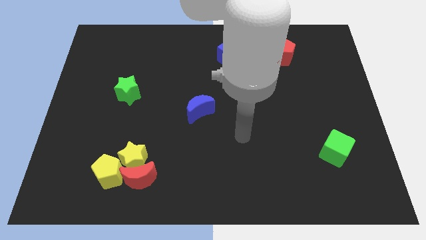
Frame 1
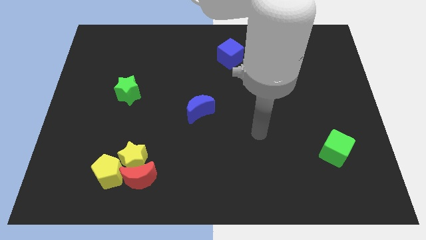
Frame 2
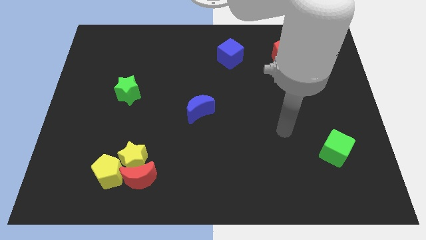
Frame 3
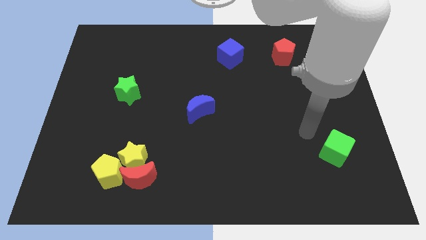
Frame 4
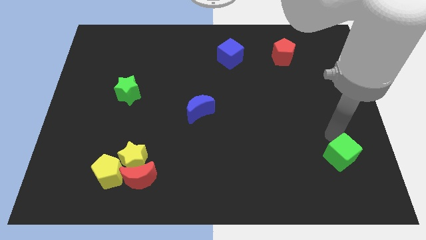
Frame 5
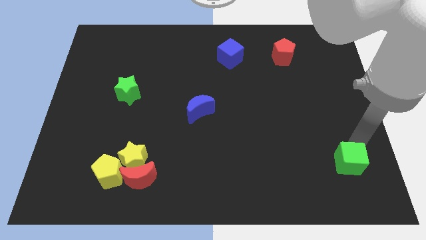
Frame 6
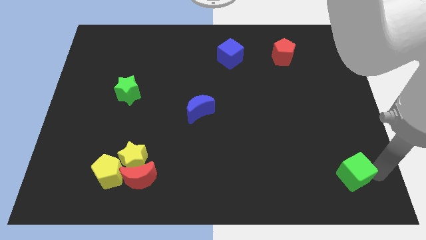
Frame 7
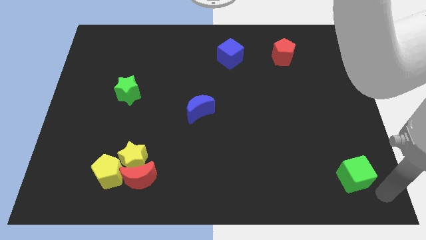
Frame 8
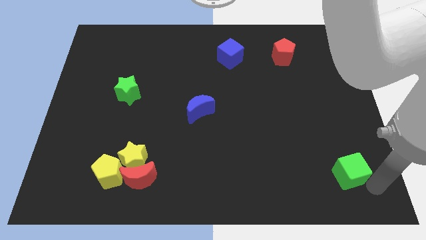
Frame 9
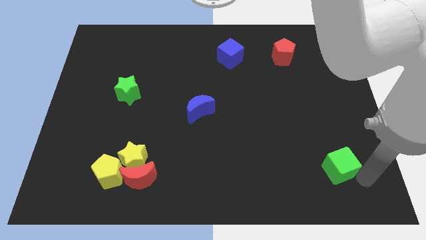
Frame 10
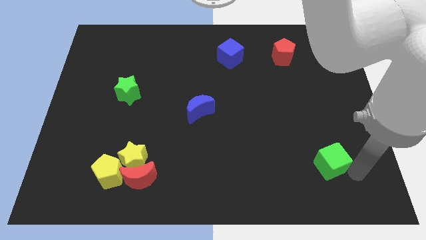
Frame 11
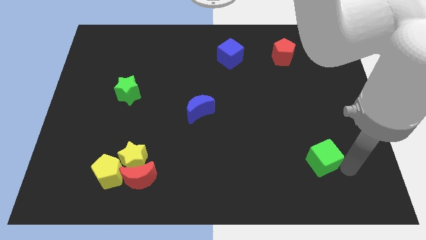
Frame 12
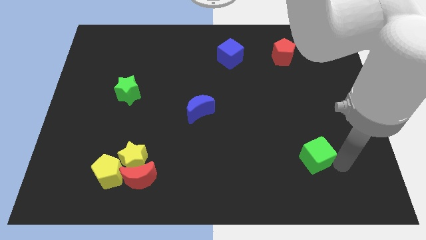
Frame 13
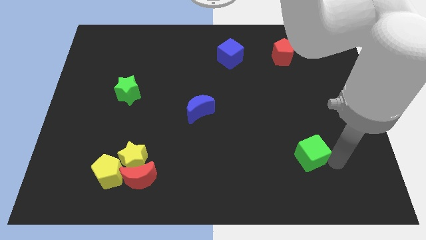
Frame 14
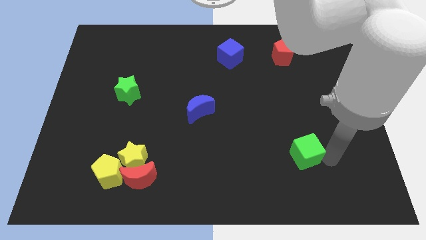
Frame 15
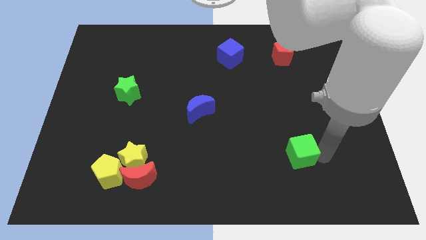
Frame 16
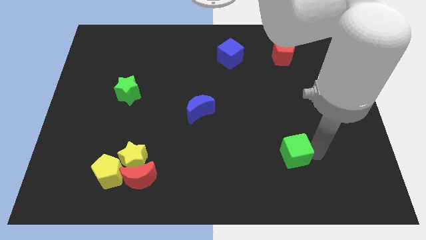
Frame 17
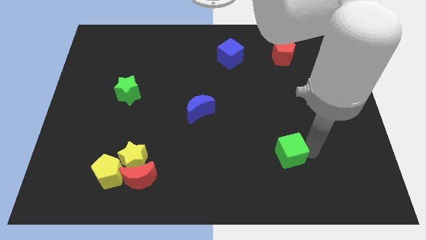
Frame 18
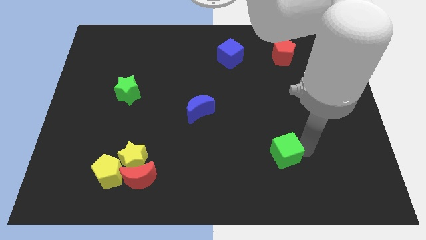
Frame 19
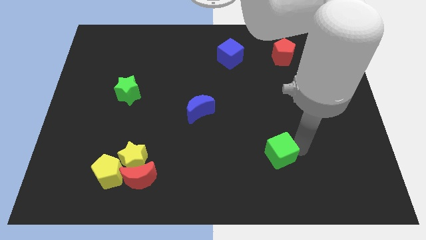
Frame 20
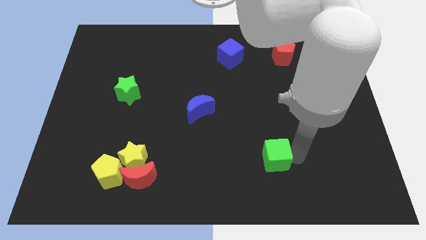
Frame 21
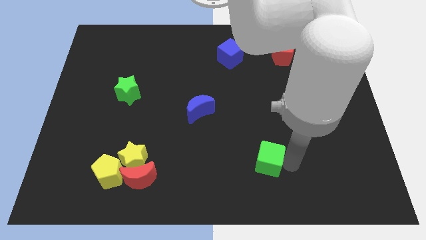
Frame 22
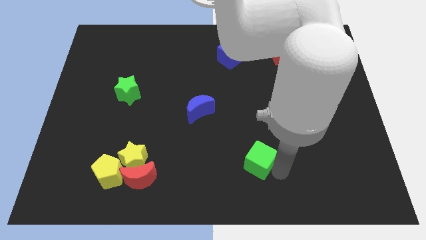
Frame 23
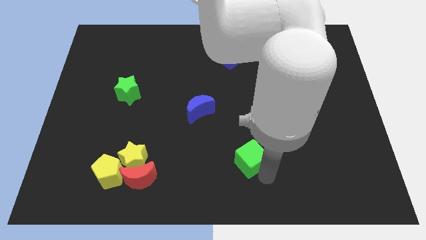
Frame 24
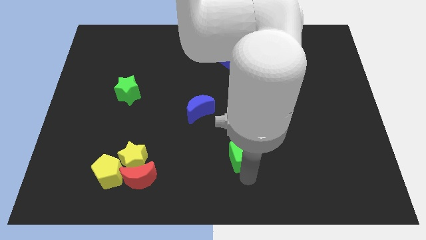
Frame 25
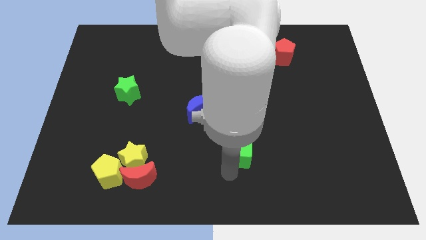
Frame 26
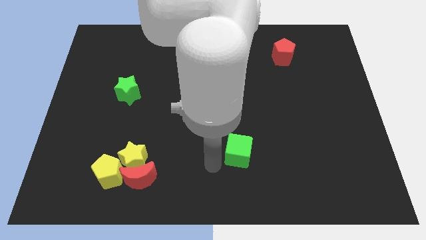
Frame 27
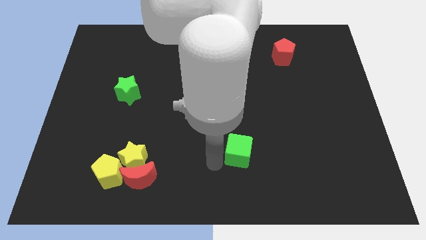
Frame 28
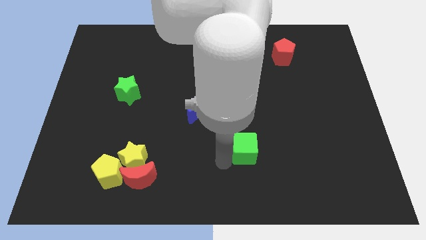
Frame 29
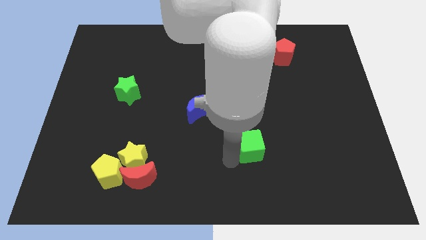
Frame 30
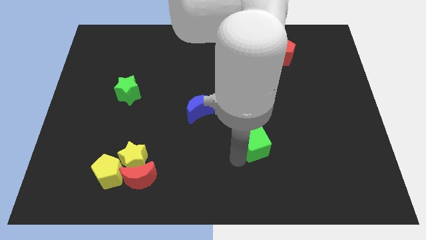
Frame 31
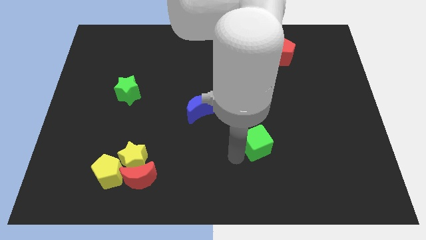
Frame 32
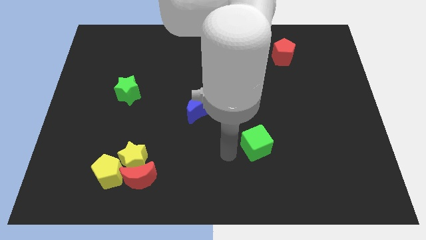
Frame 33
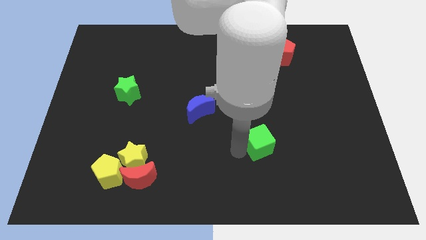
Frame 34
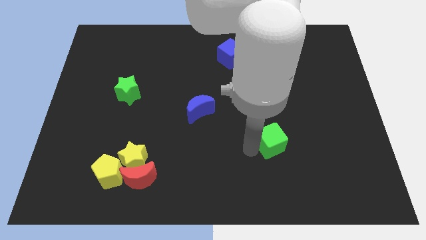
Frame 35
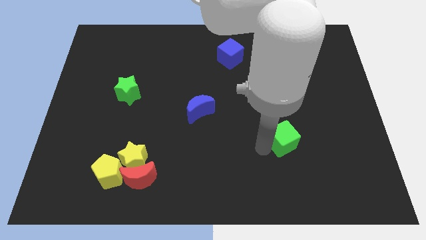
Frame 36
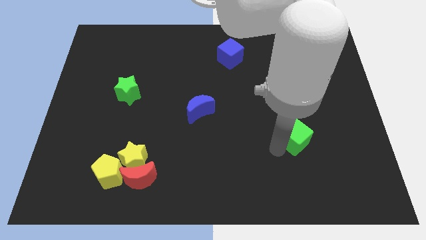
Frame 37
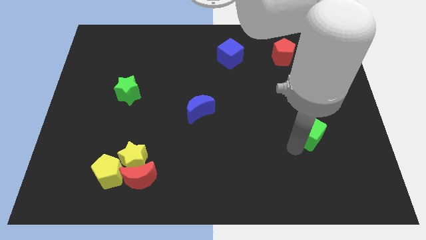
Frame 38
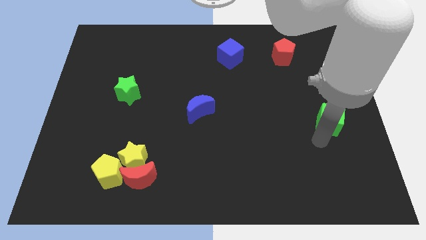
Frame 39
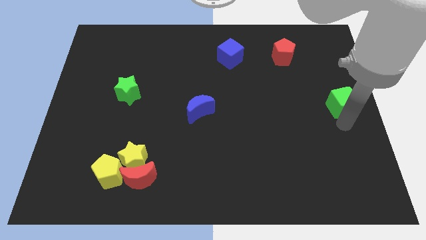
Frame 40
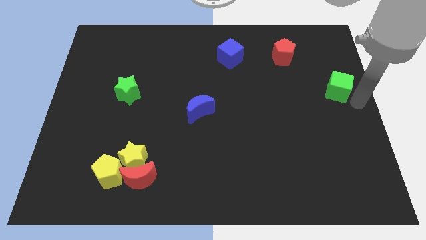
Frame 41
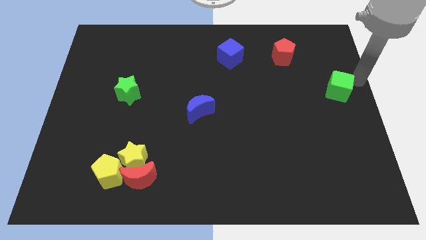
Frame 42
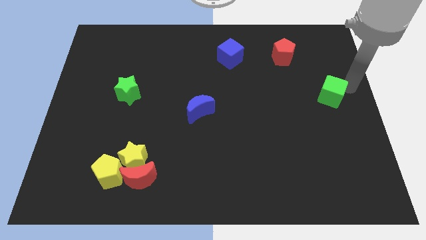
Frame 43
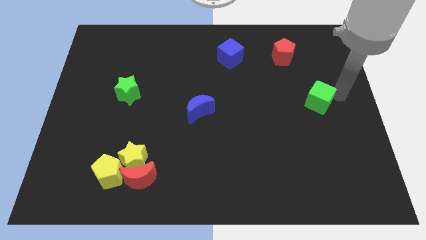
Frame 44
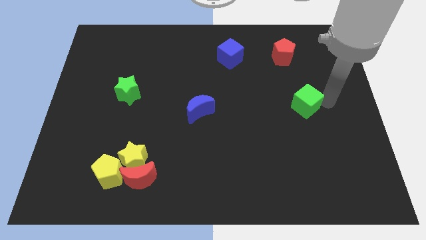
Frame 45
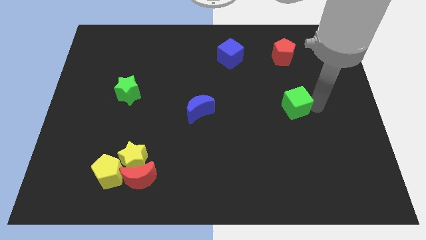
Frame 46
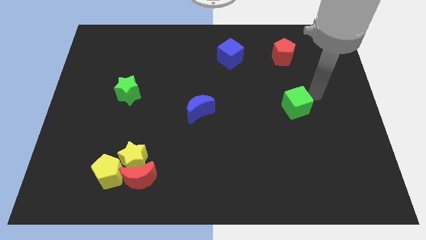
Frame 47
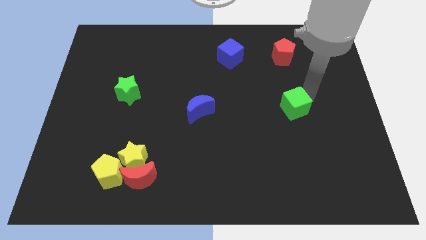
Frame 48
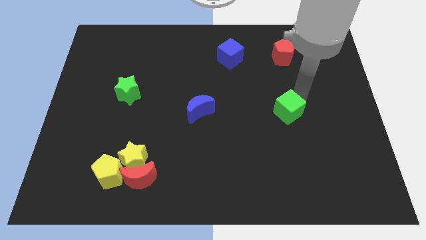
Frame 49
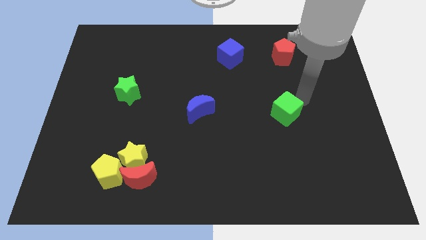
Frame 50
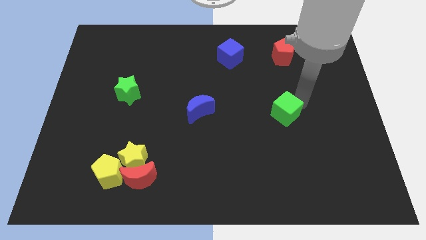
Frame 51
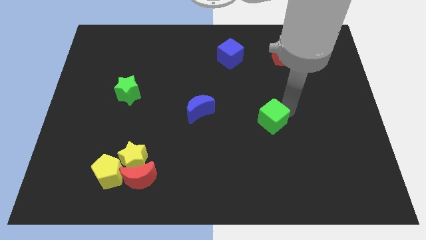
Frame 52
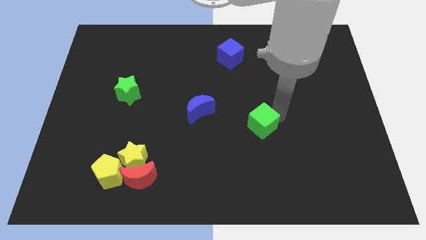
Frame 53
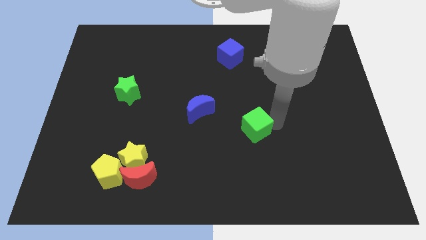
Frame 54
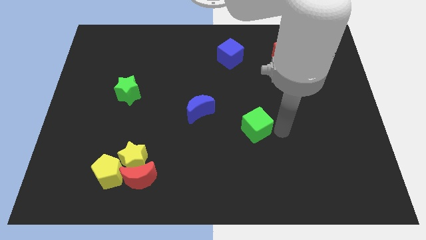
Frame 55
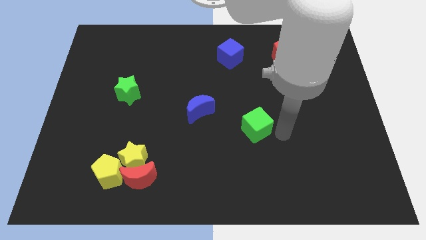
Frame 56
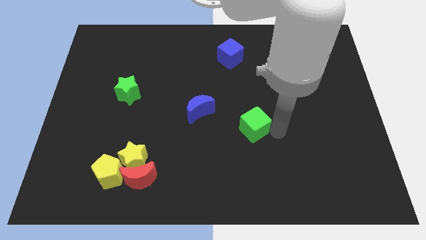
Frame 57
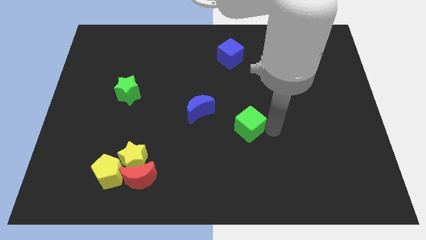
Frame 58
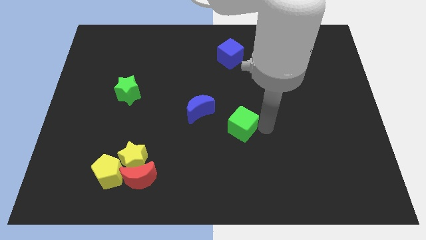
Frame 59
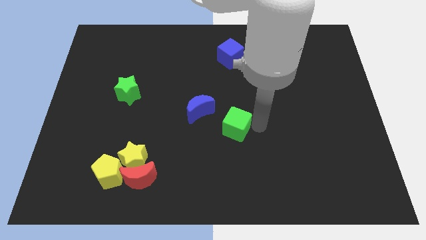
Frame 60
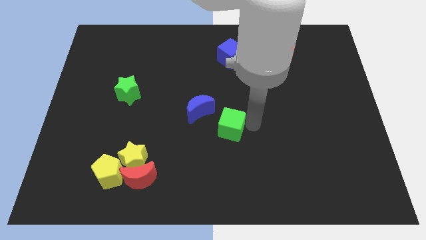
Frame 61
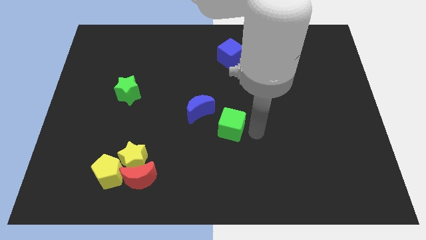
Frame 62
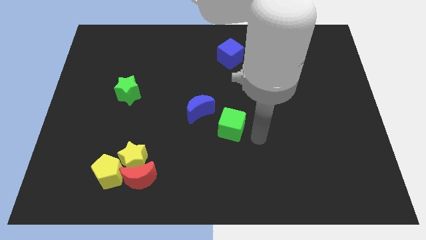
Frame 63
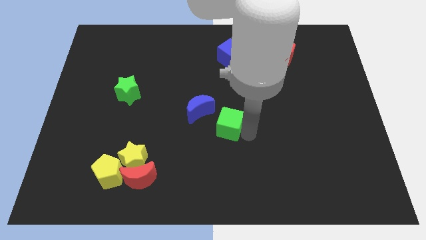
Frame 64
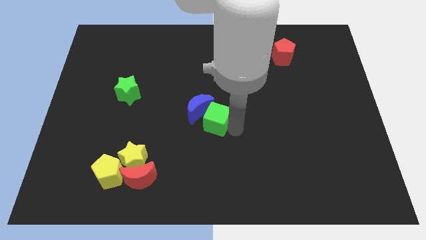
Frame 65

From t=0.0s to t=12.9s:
push the green cube next to the blue moon

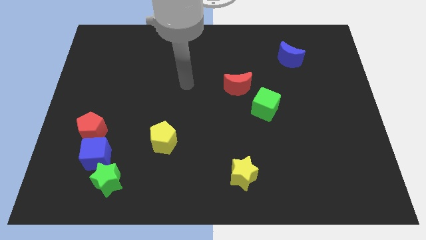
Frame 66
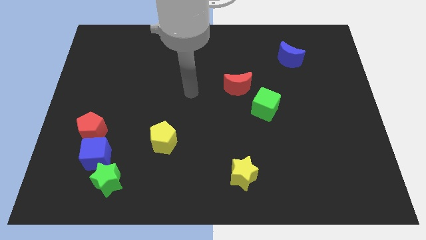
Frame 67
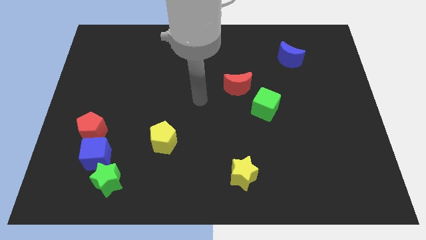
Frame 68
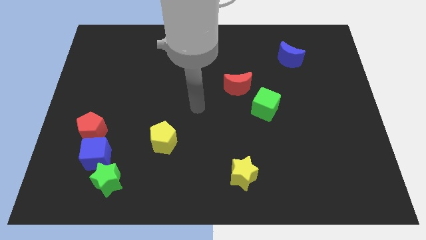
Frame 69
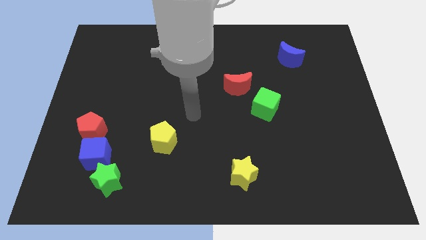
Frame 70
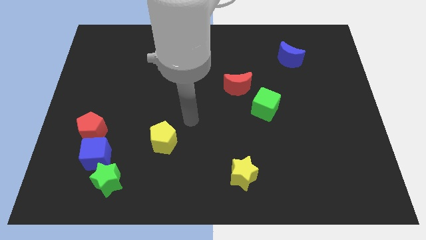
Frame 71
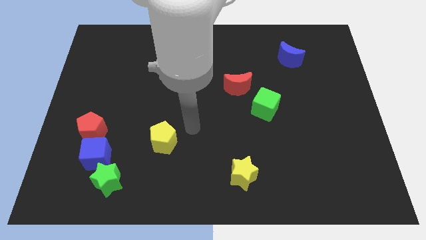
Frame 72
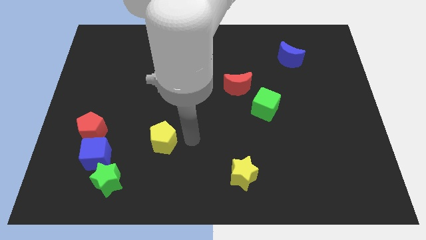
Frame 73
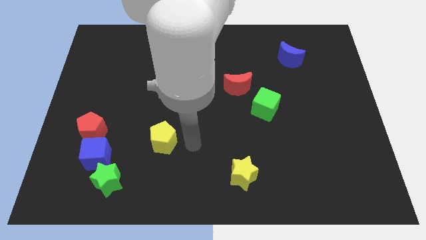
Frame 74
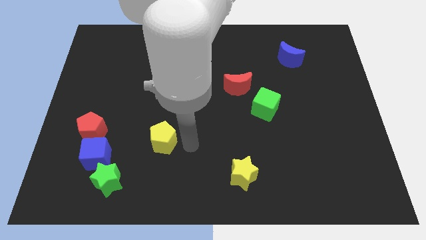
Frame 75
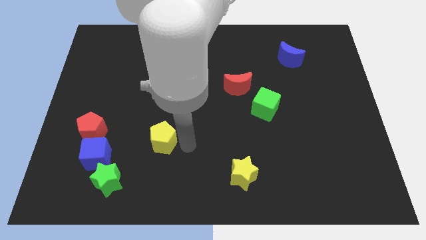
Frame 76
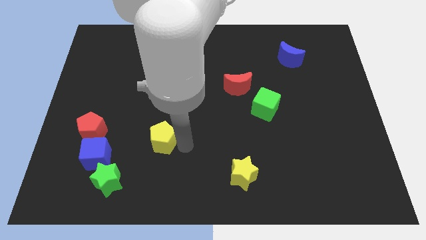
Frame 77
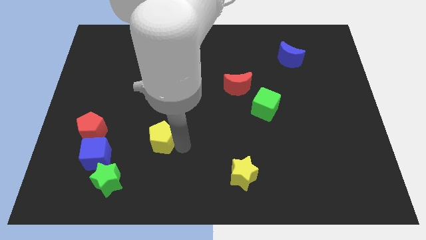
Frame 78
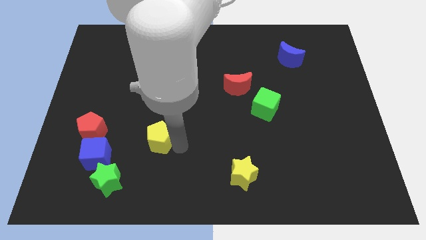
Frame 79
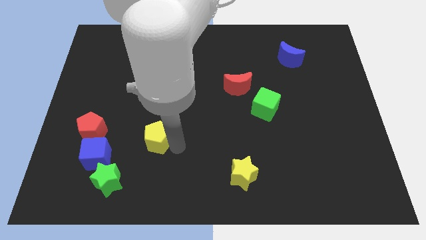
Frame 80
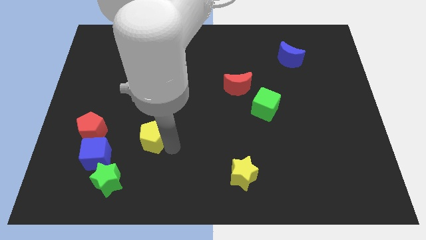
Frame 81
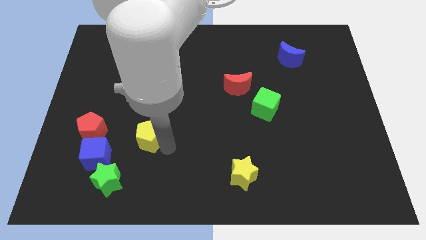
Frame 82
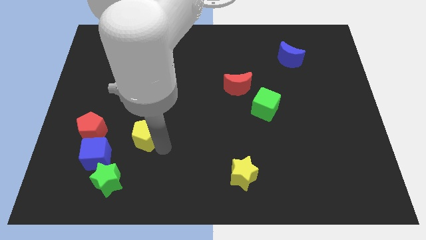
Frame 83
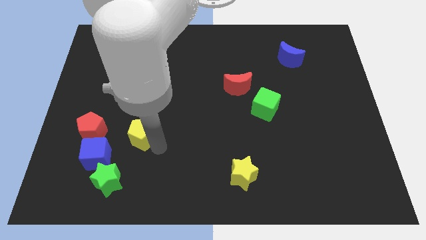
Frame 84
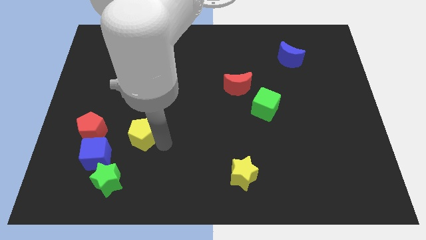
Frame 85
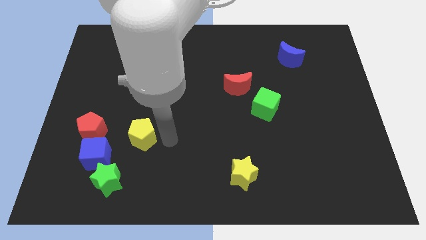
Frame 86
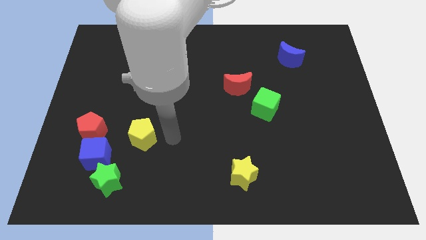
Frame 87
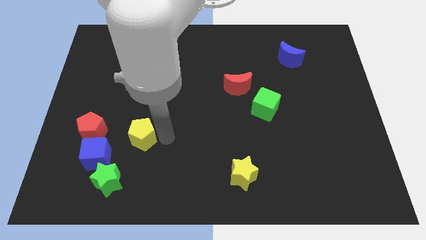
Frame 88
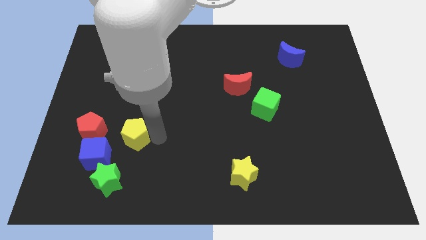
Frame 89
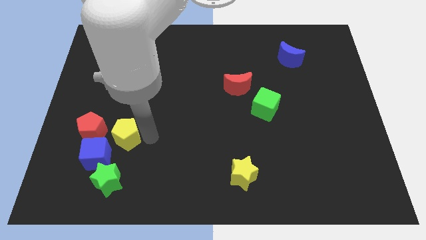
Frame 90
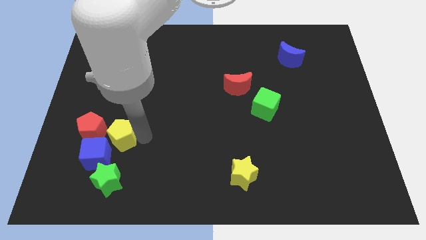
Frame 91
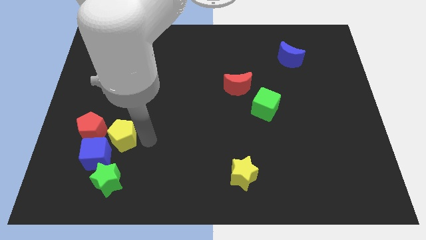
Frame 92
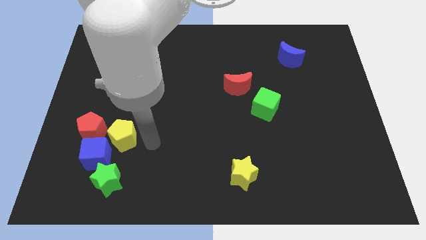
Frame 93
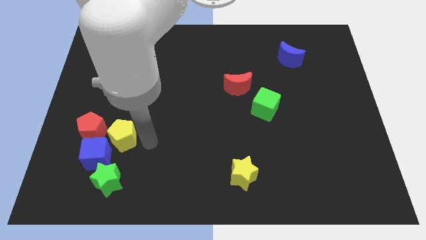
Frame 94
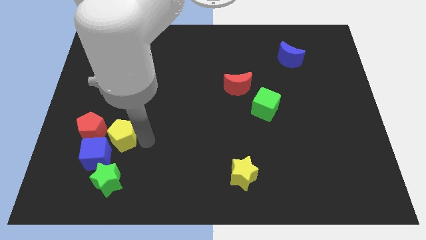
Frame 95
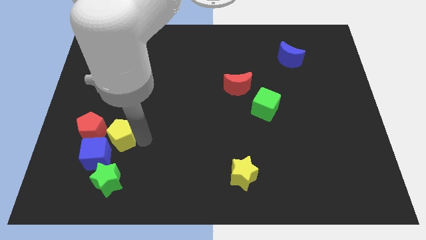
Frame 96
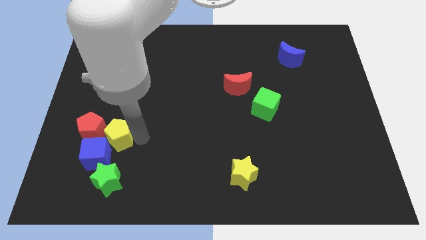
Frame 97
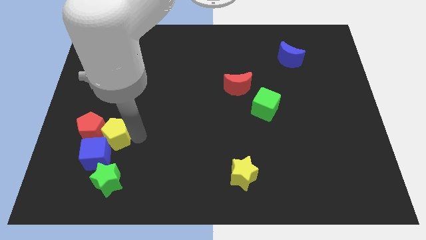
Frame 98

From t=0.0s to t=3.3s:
slide the yellow pentagon next to the red pentagon
